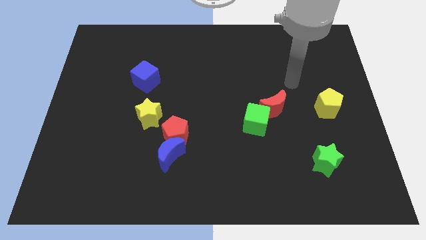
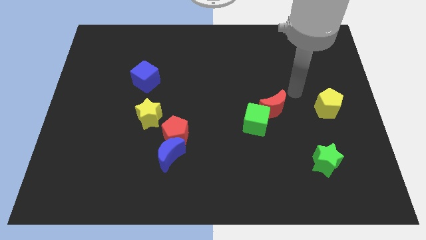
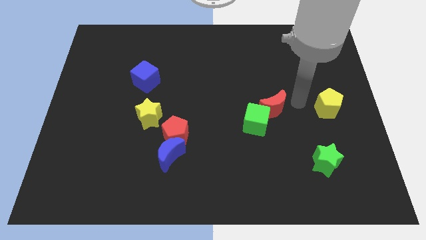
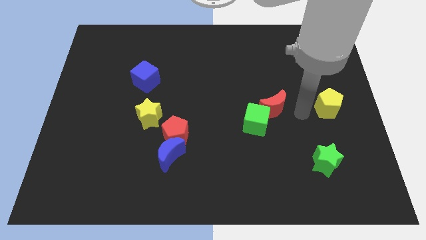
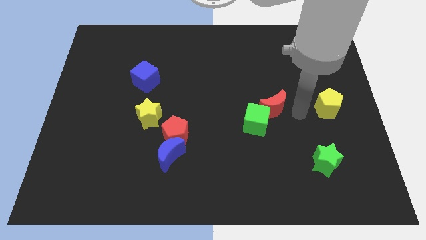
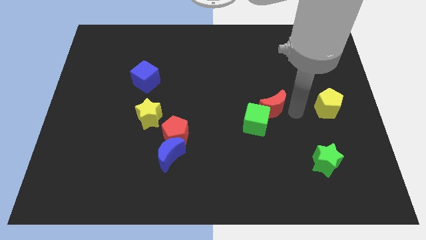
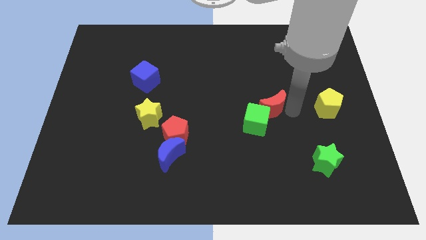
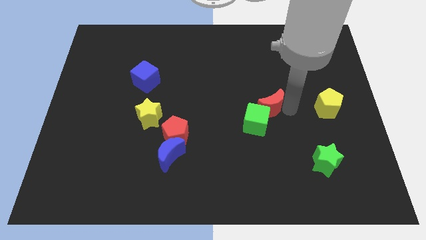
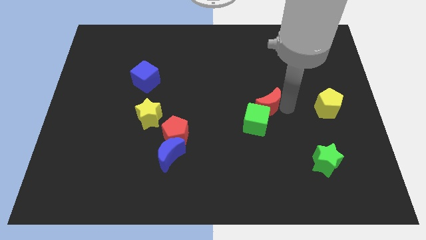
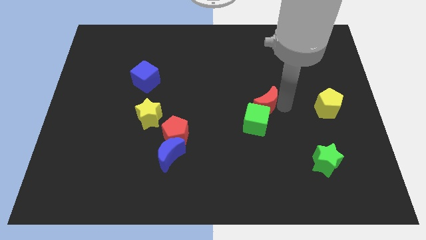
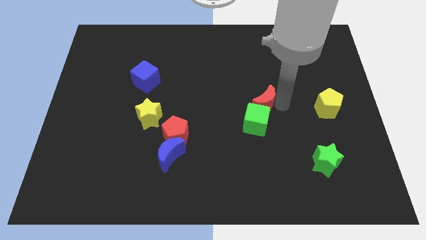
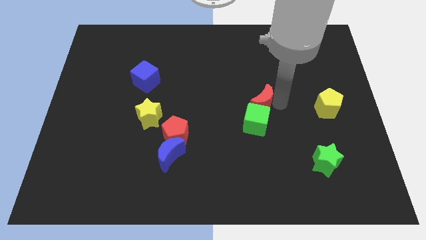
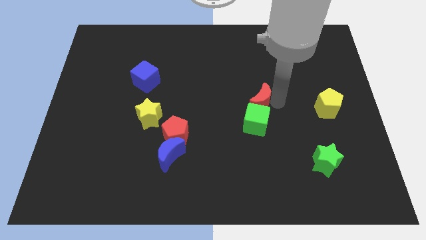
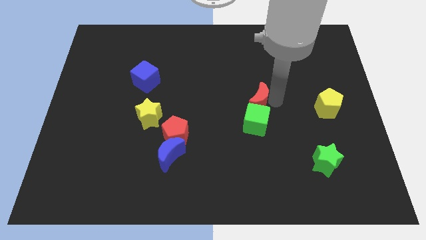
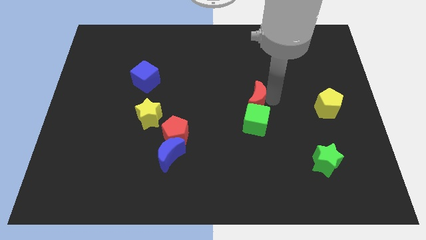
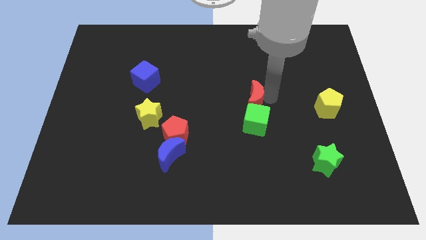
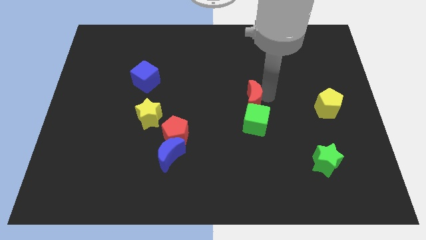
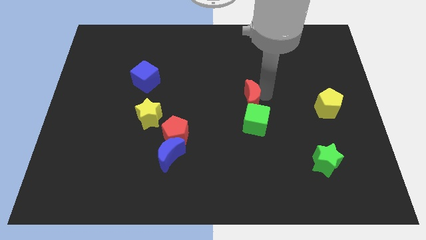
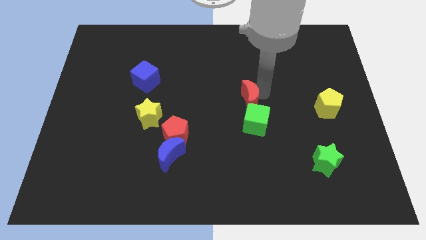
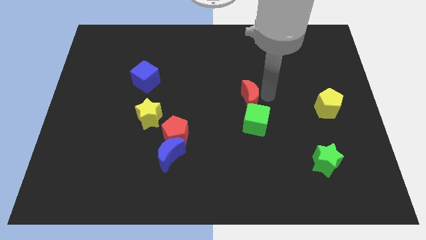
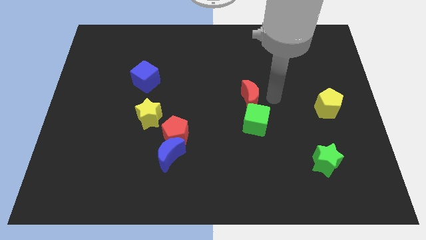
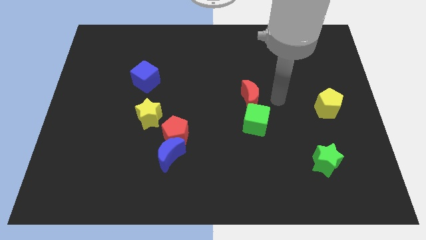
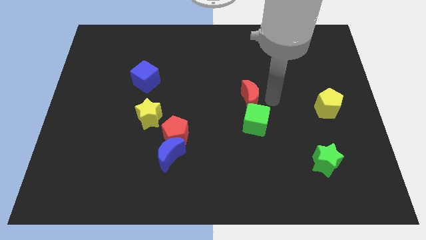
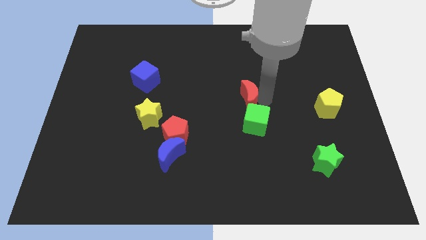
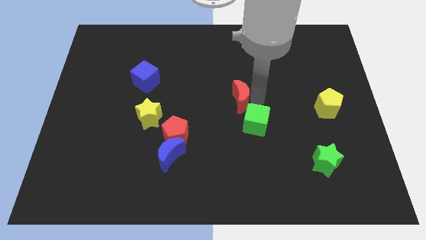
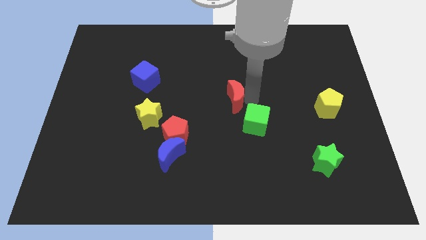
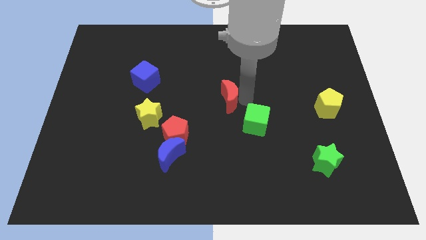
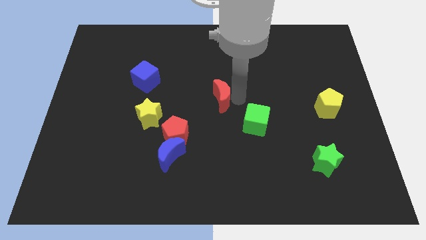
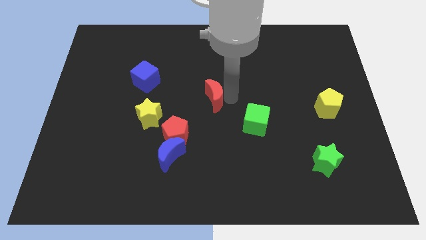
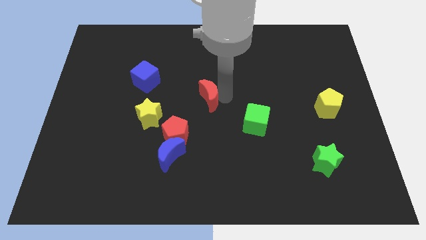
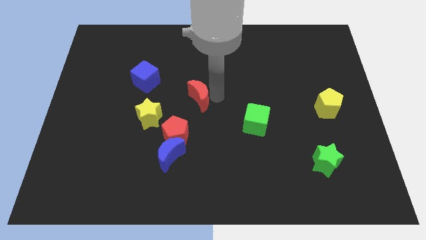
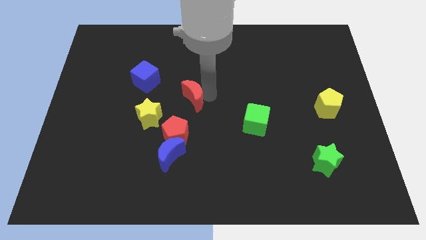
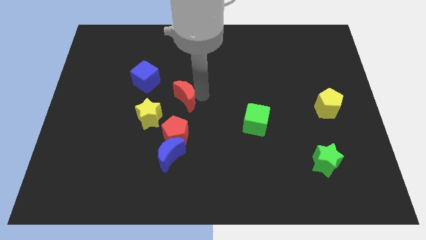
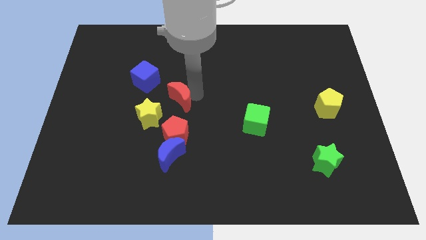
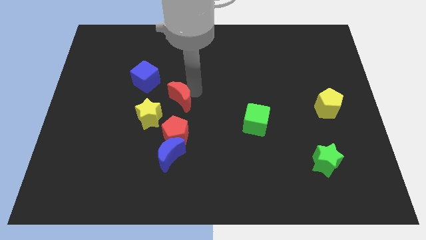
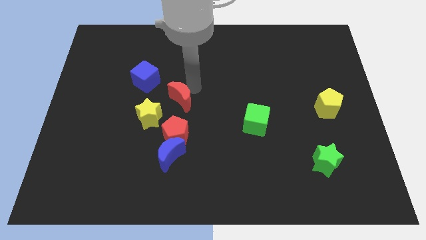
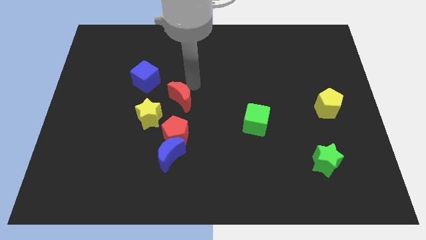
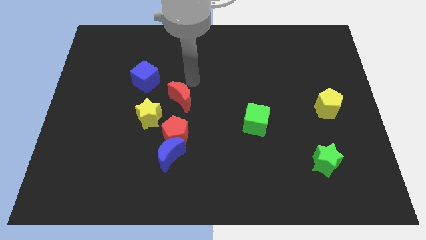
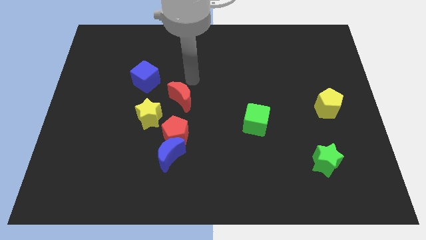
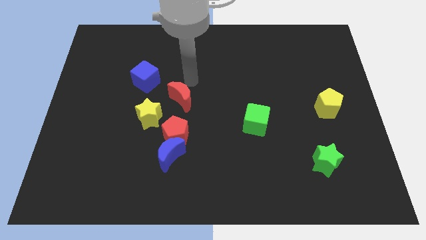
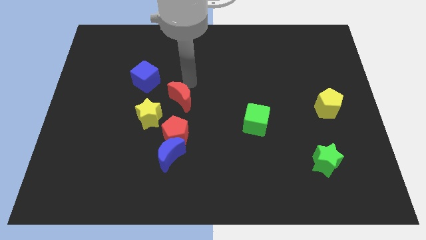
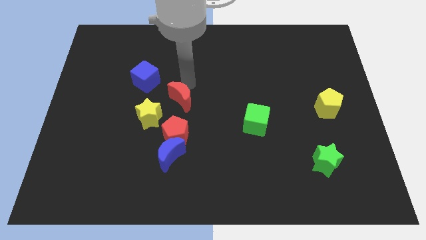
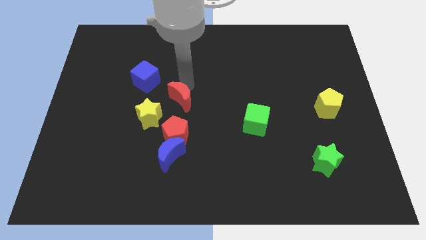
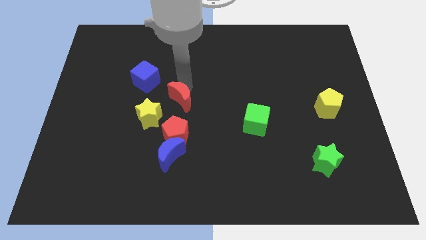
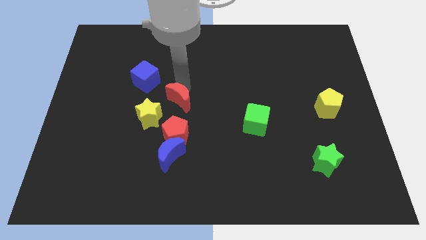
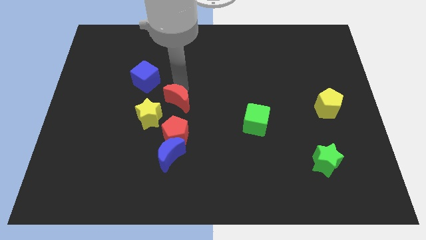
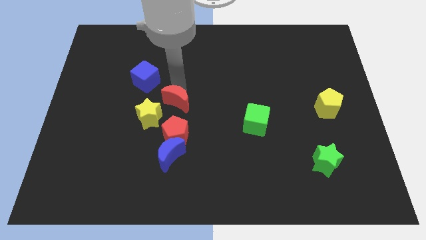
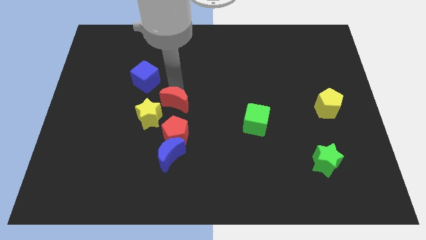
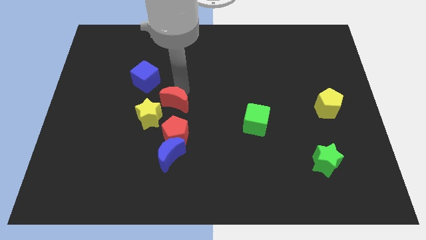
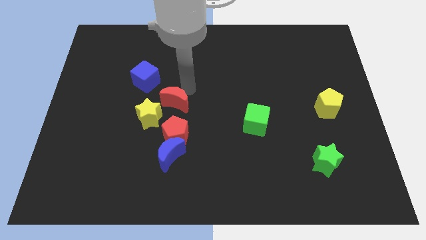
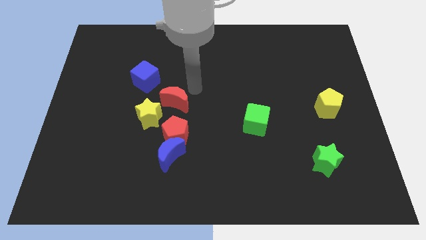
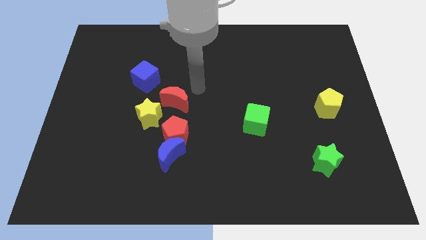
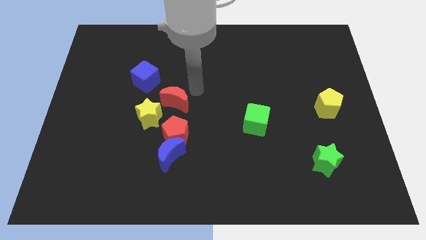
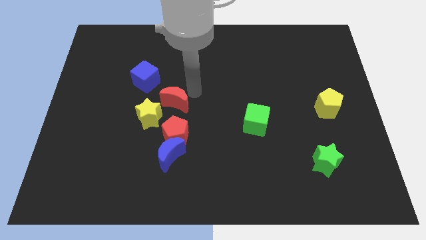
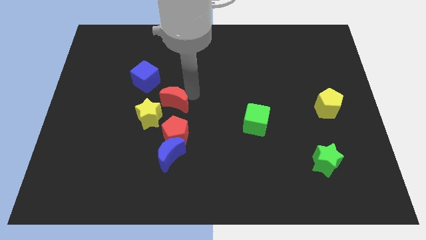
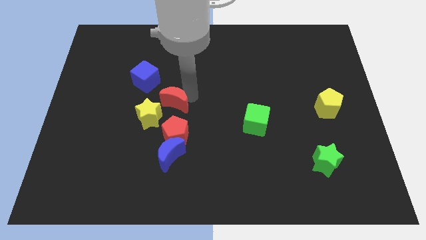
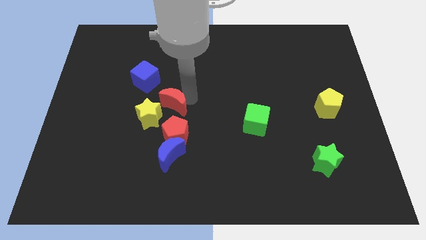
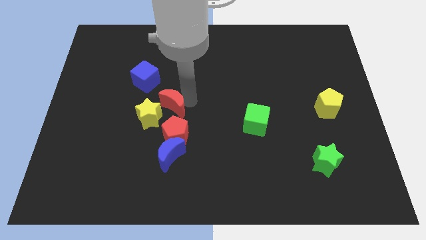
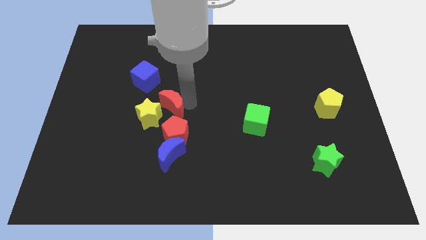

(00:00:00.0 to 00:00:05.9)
slide the red moon to the yellow star

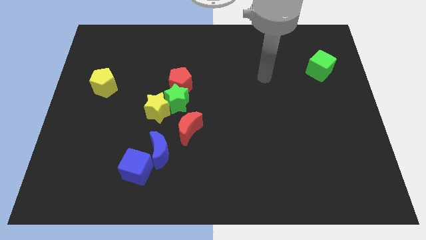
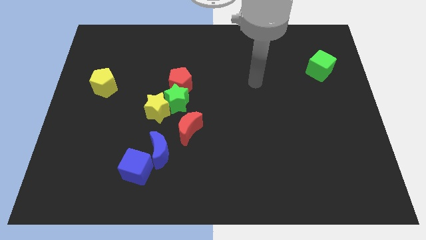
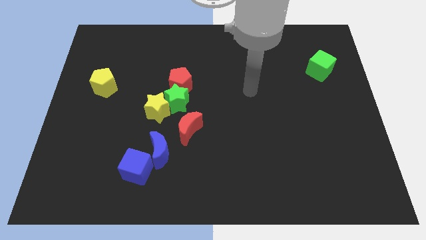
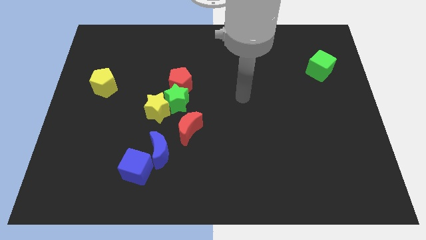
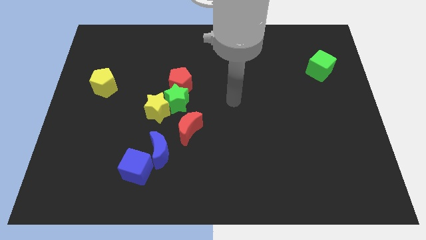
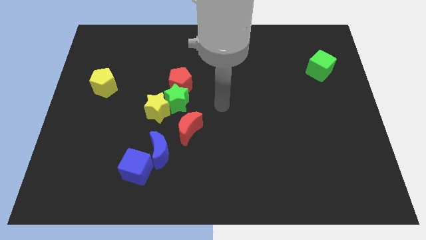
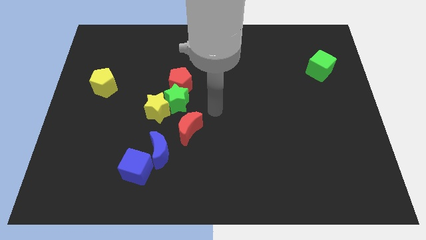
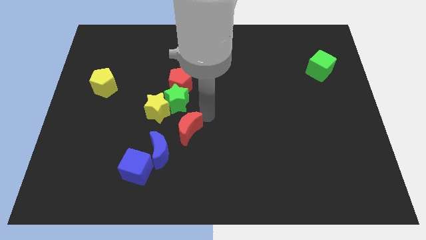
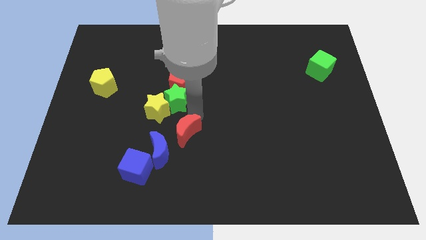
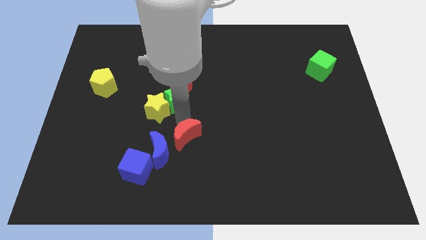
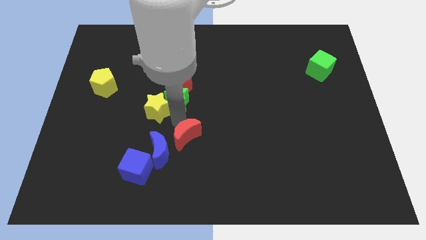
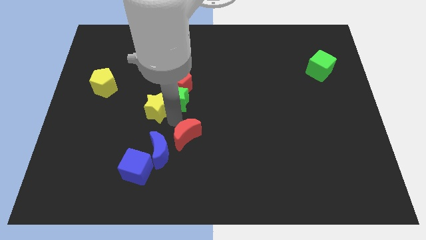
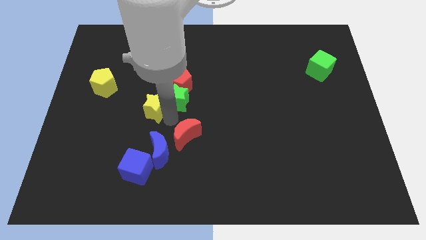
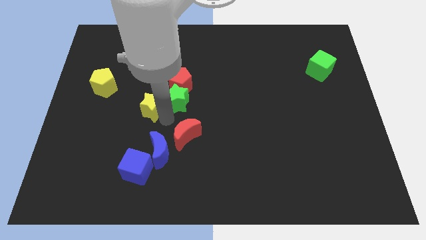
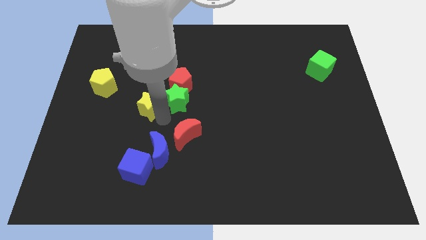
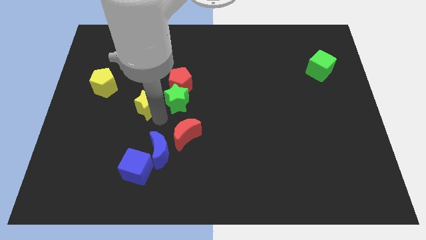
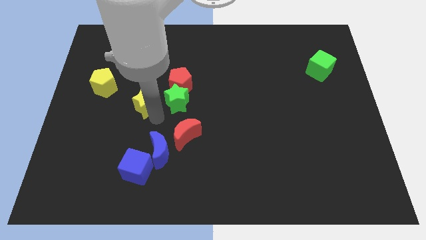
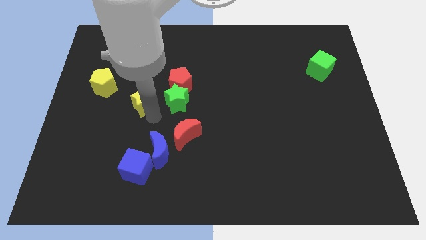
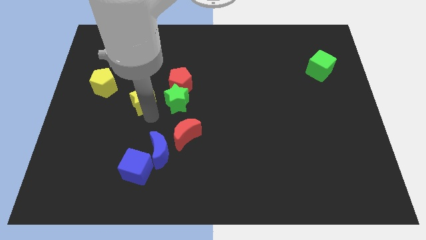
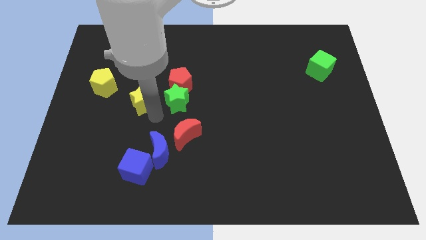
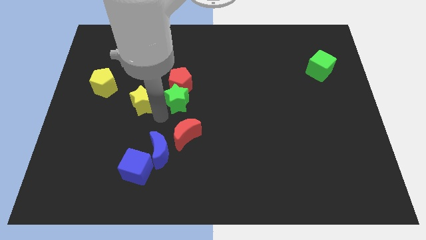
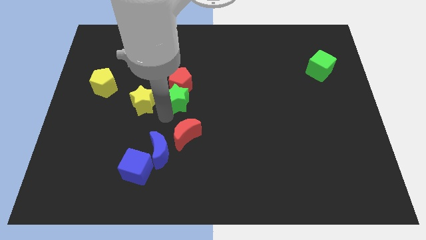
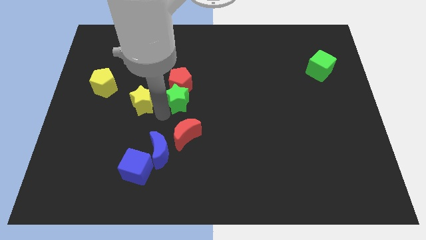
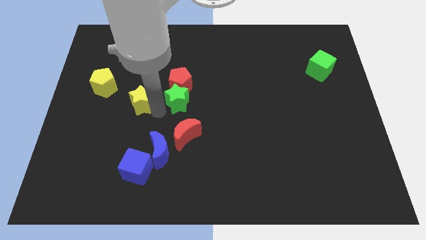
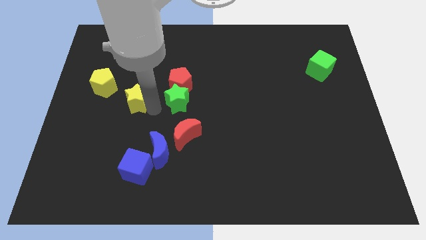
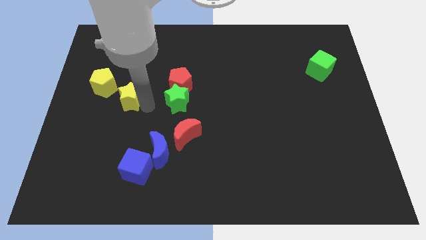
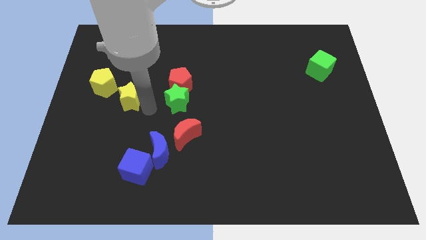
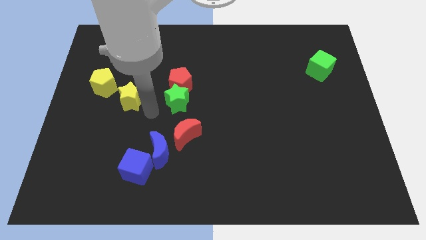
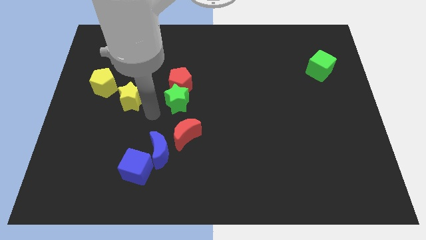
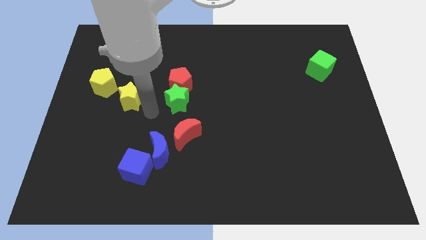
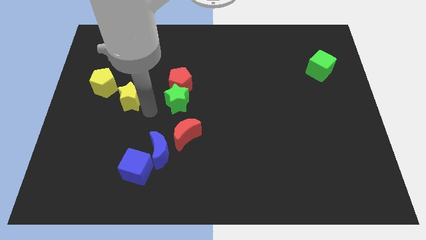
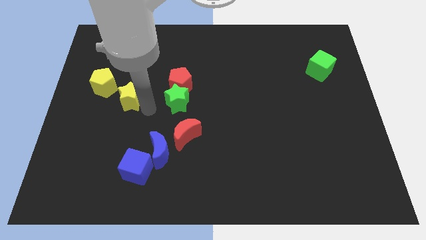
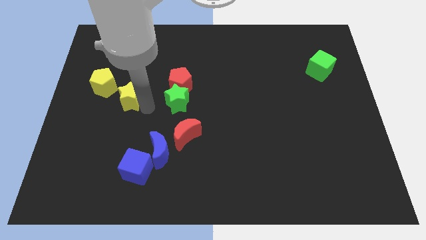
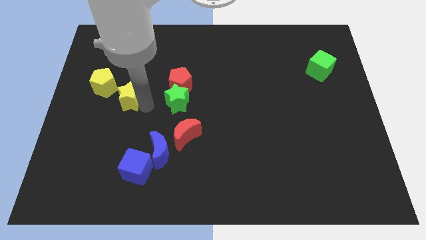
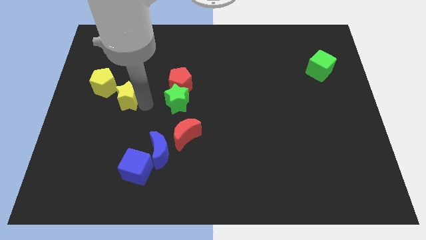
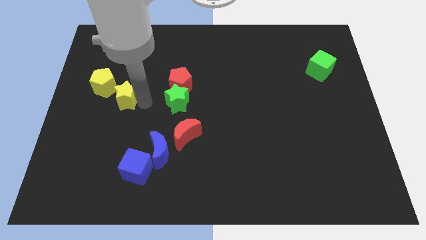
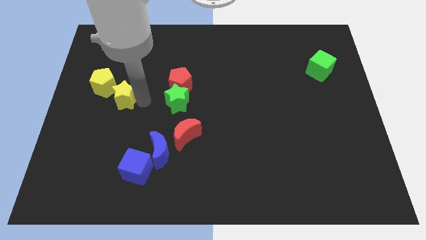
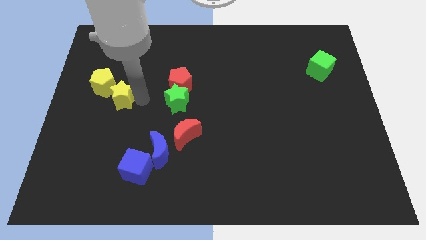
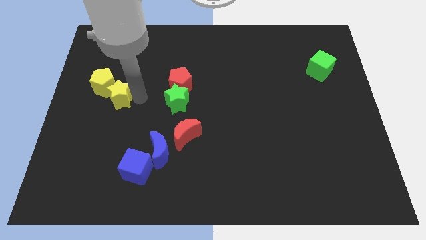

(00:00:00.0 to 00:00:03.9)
put the yellow star next to the yellow pentagon
